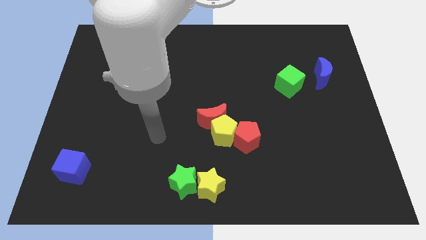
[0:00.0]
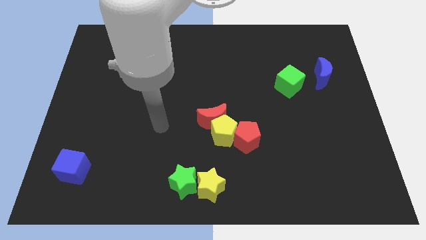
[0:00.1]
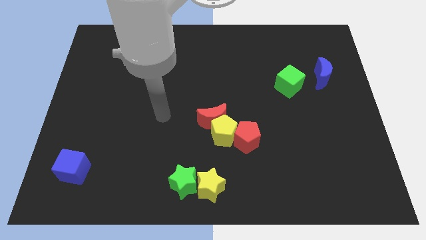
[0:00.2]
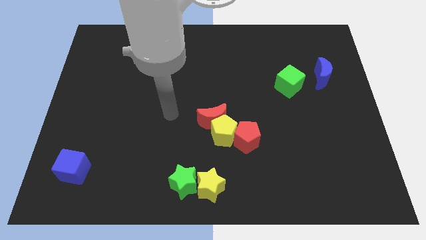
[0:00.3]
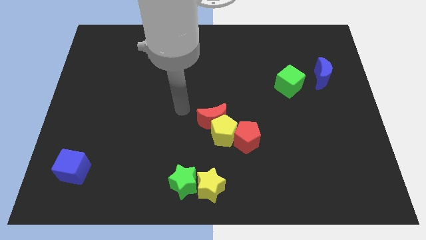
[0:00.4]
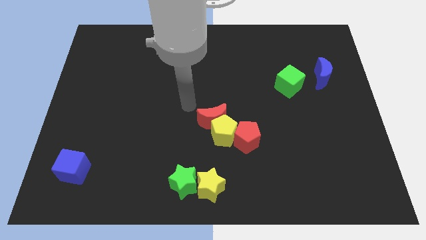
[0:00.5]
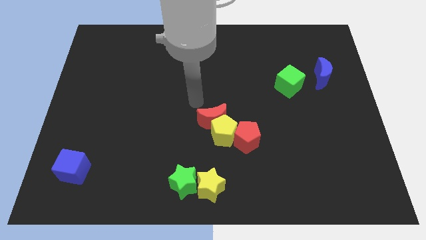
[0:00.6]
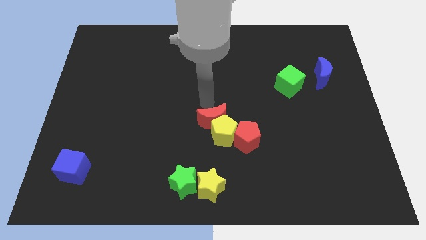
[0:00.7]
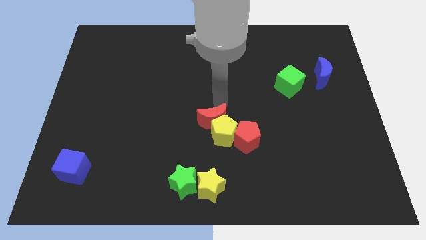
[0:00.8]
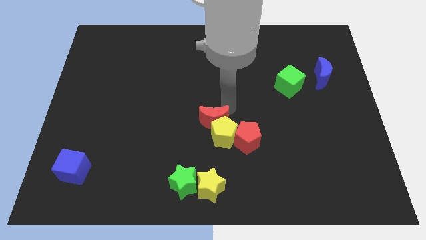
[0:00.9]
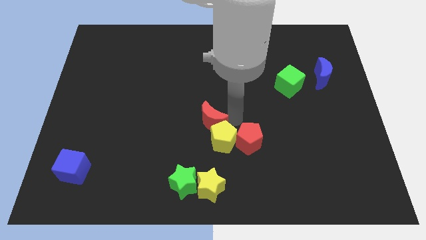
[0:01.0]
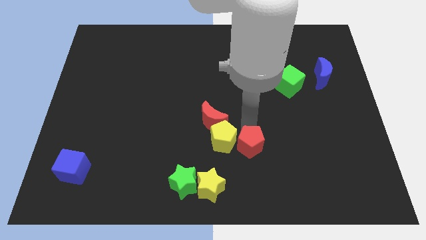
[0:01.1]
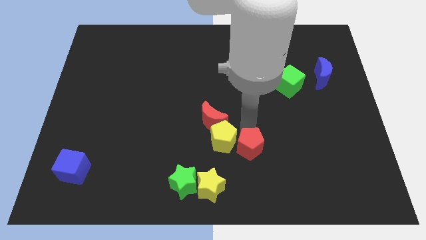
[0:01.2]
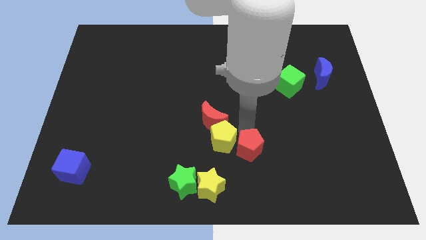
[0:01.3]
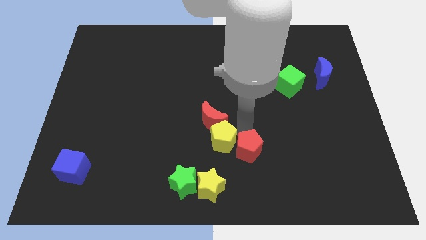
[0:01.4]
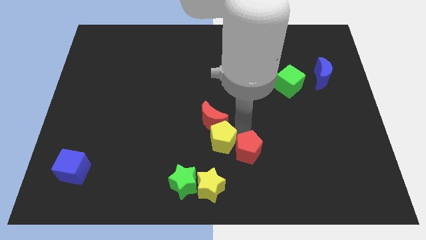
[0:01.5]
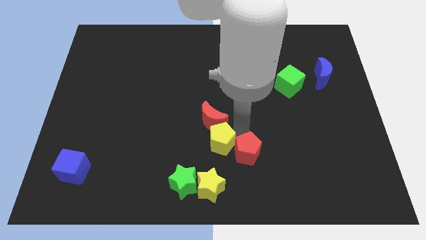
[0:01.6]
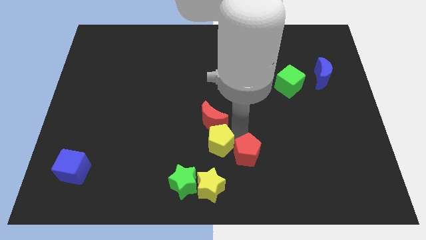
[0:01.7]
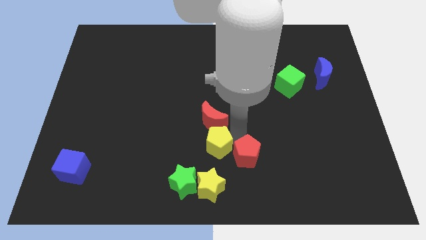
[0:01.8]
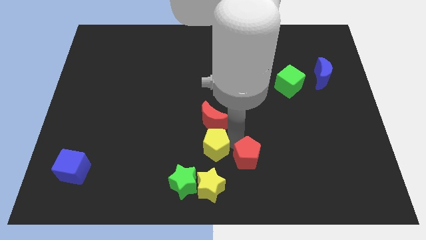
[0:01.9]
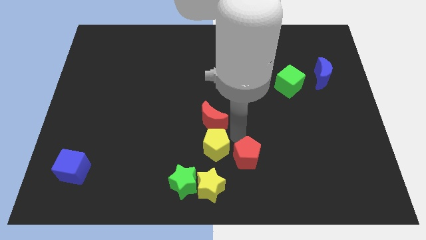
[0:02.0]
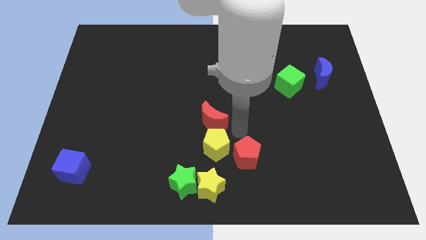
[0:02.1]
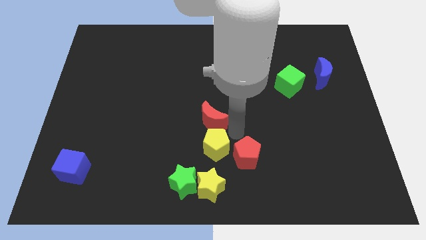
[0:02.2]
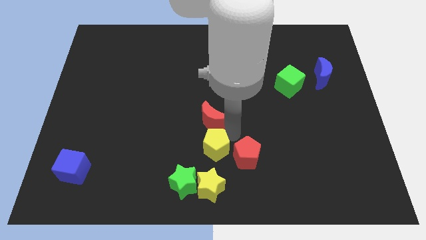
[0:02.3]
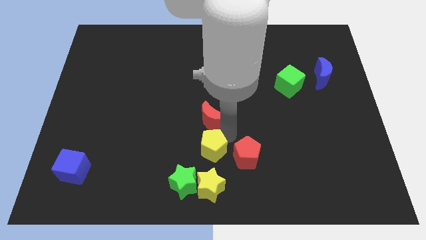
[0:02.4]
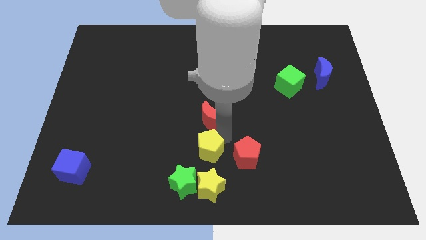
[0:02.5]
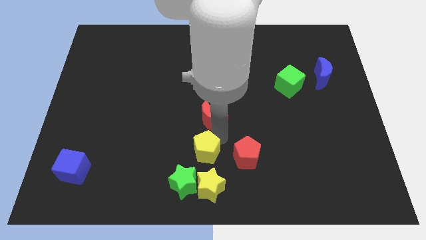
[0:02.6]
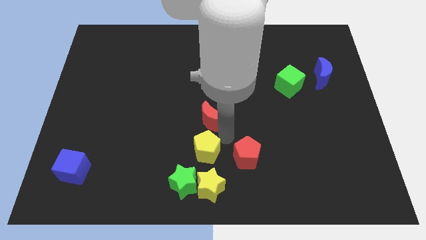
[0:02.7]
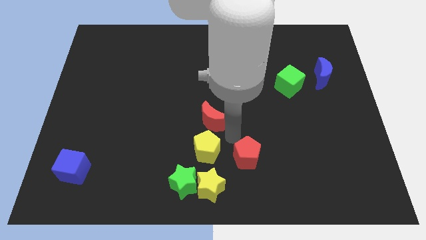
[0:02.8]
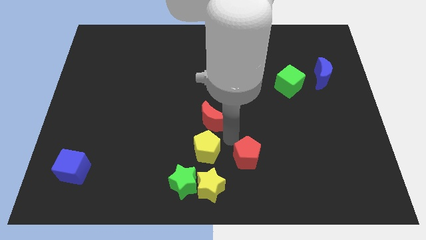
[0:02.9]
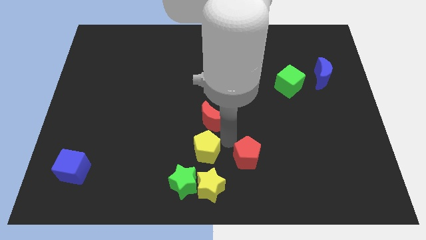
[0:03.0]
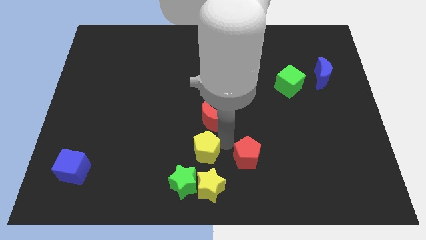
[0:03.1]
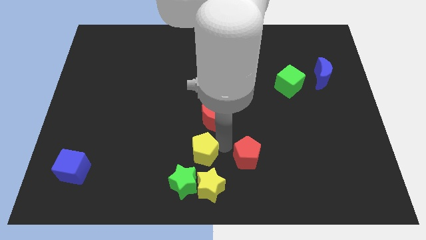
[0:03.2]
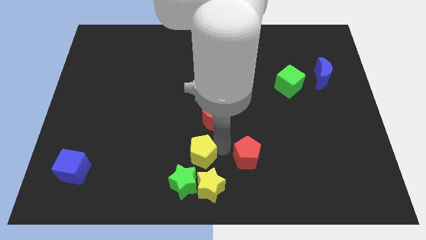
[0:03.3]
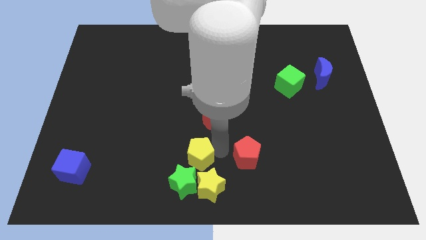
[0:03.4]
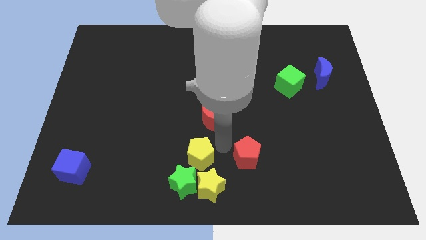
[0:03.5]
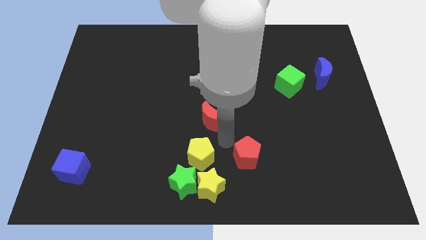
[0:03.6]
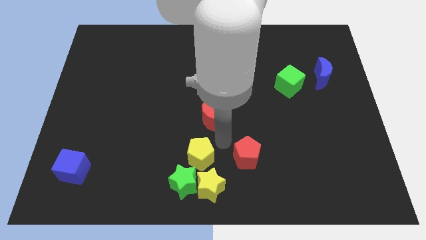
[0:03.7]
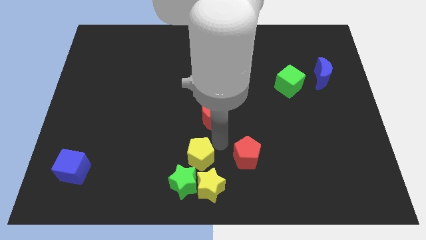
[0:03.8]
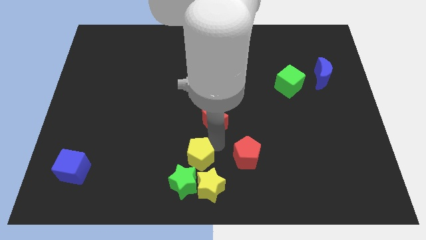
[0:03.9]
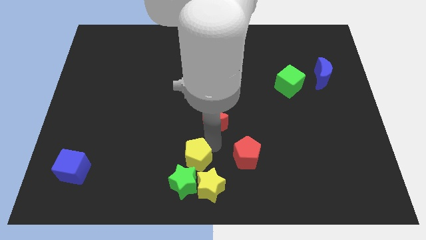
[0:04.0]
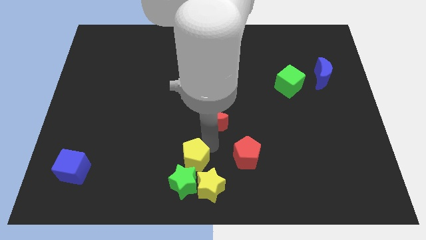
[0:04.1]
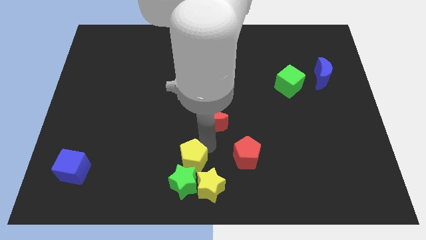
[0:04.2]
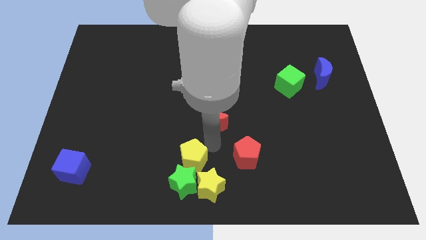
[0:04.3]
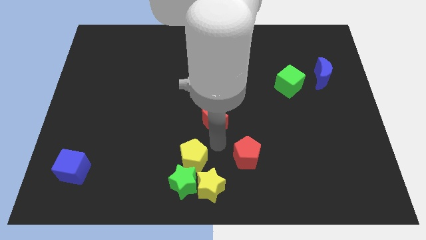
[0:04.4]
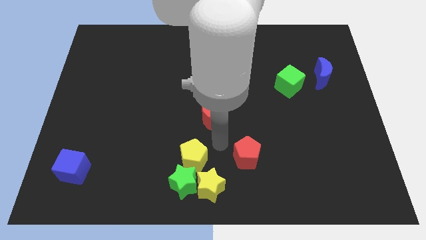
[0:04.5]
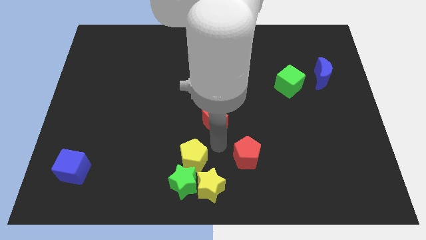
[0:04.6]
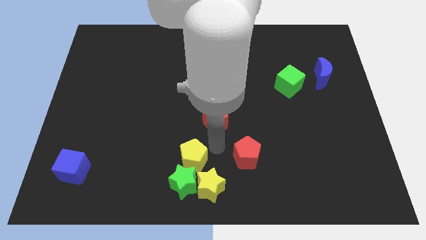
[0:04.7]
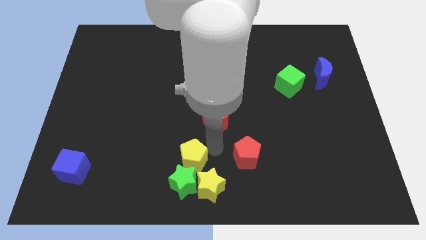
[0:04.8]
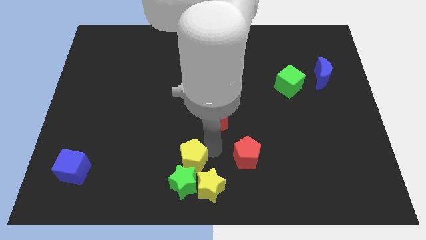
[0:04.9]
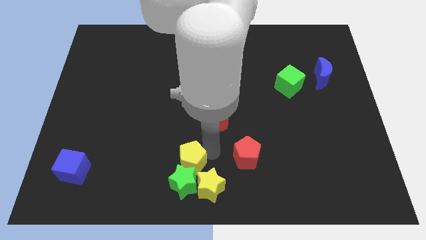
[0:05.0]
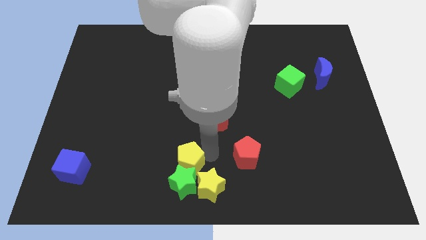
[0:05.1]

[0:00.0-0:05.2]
move the yellow pentagon away from the red moon and red pentagon

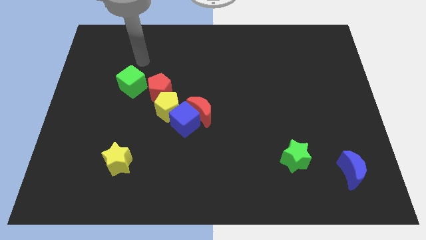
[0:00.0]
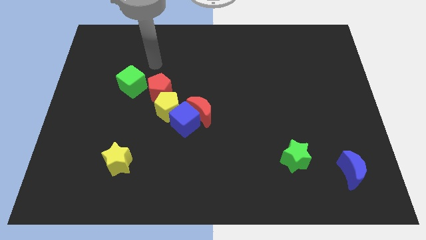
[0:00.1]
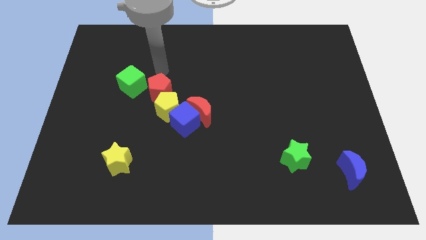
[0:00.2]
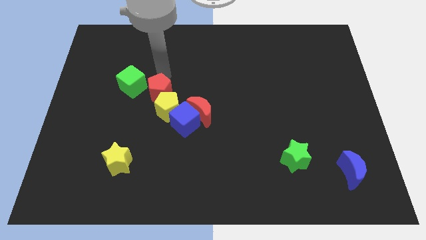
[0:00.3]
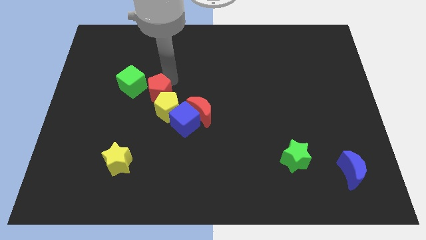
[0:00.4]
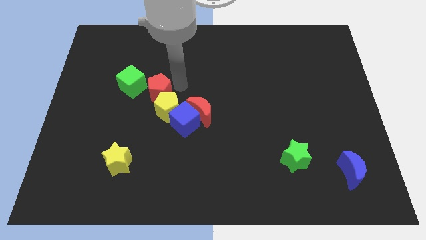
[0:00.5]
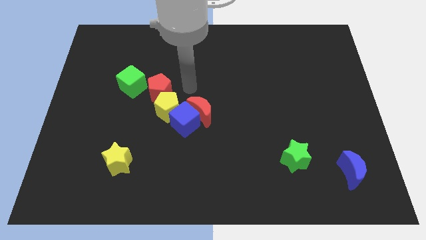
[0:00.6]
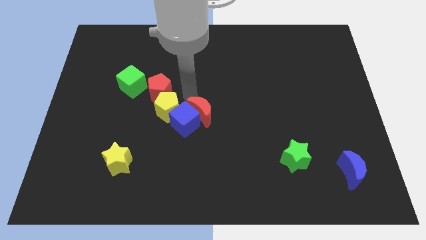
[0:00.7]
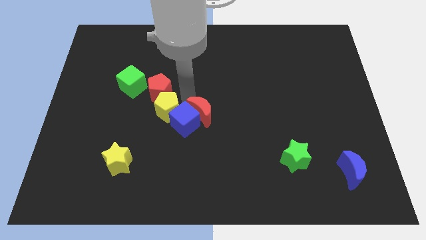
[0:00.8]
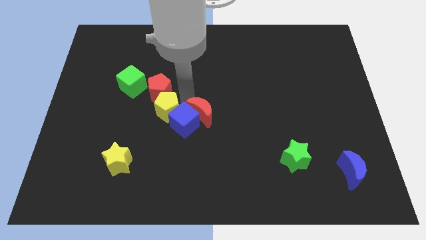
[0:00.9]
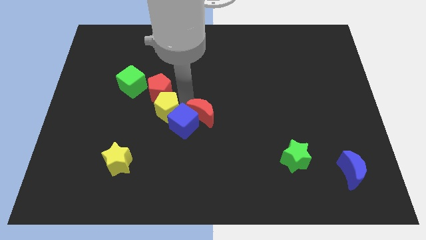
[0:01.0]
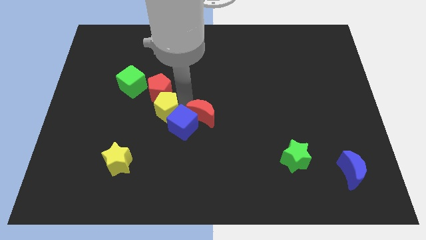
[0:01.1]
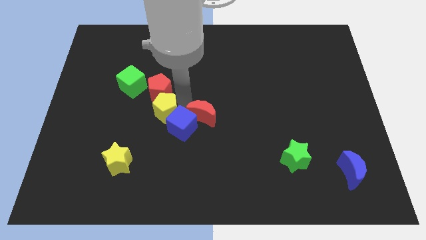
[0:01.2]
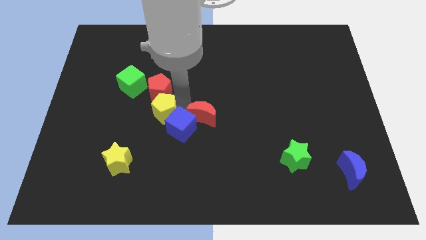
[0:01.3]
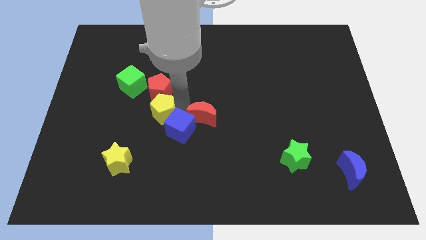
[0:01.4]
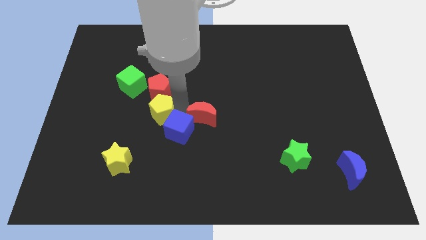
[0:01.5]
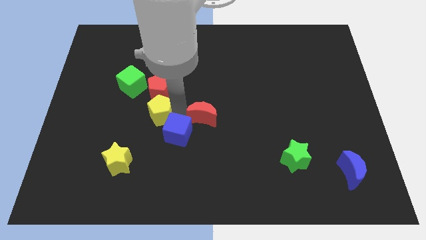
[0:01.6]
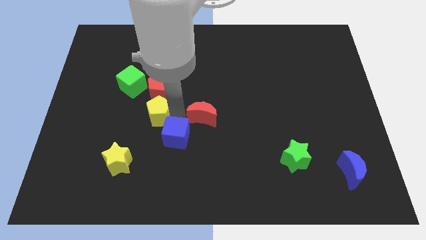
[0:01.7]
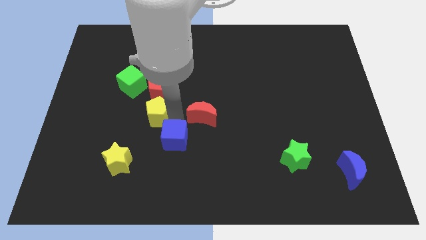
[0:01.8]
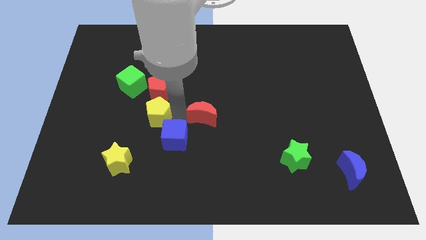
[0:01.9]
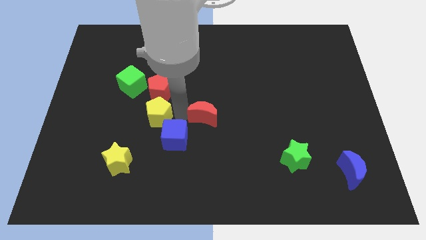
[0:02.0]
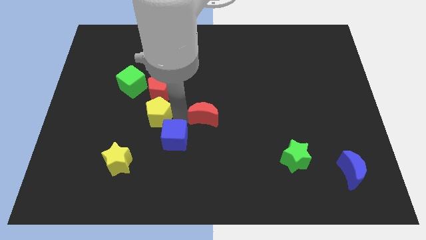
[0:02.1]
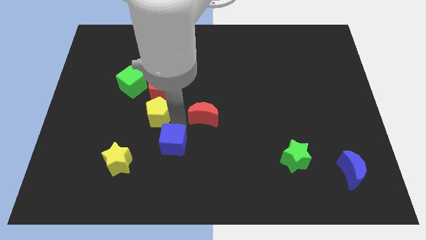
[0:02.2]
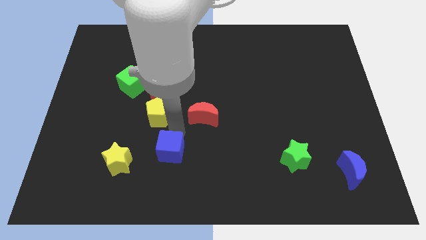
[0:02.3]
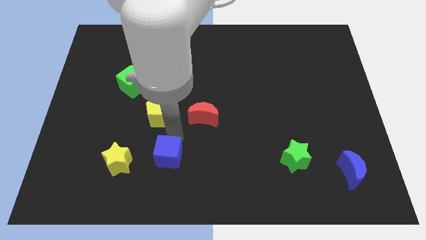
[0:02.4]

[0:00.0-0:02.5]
separate the blue cube from the red moon and yellow pentagon

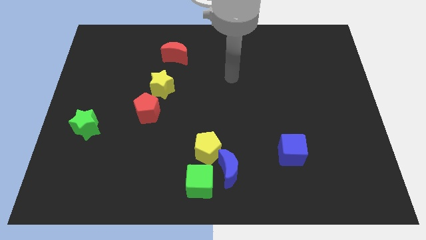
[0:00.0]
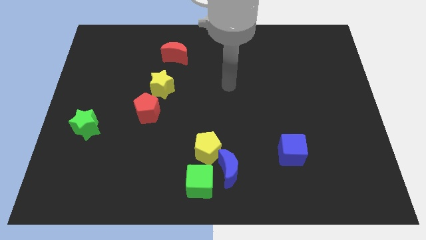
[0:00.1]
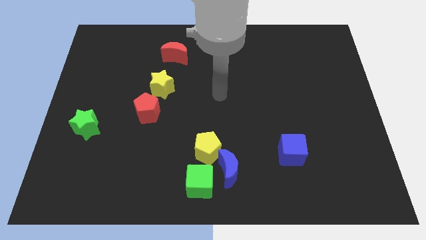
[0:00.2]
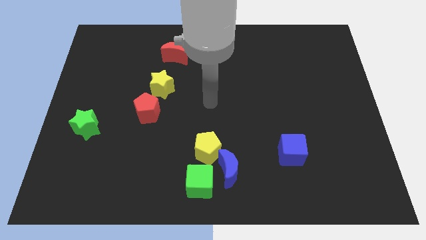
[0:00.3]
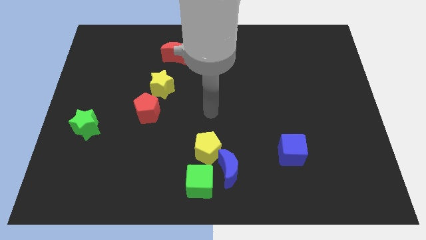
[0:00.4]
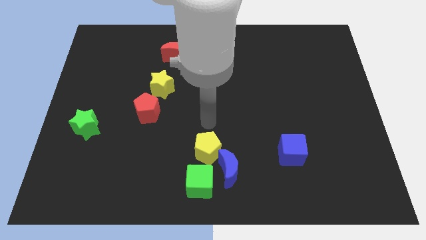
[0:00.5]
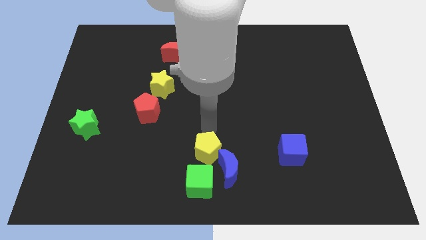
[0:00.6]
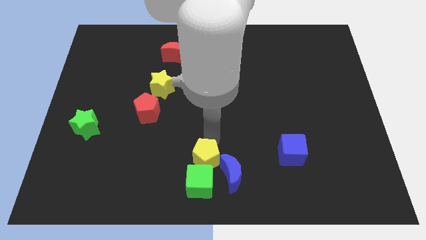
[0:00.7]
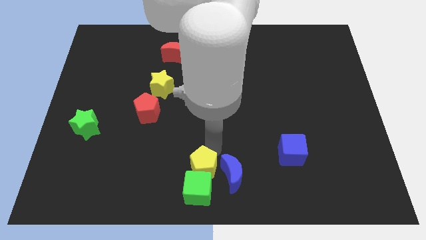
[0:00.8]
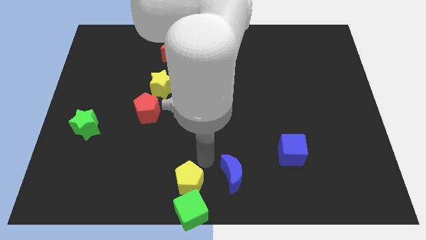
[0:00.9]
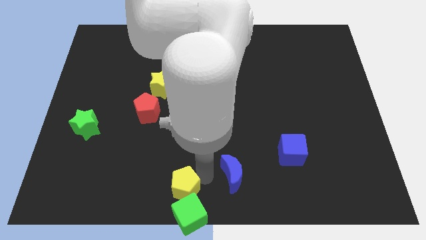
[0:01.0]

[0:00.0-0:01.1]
pull the blue moon apart from the yellow pentagon and green cube

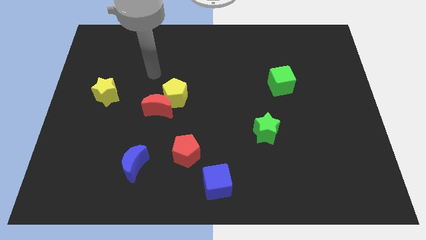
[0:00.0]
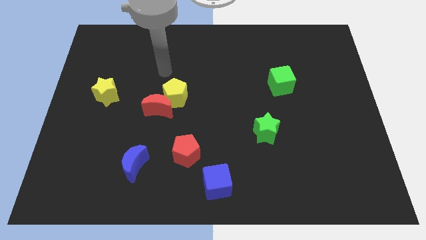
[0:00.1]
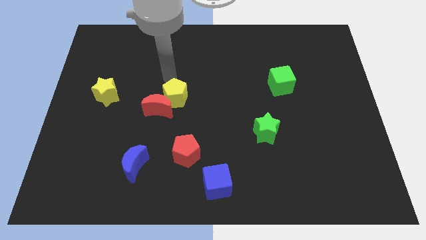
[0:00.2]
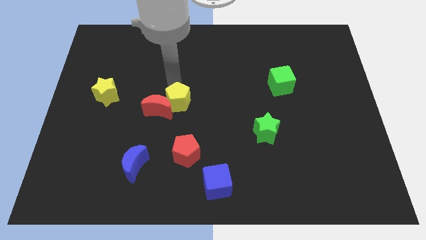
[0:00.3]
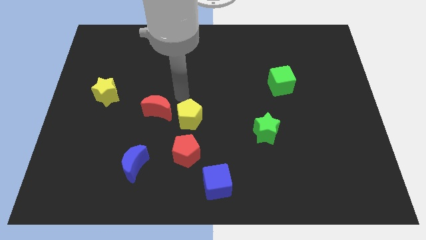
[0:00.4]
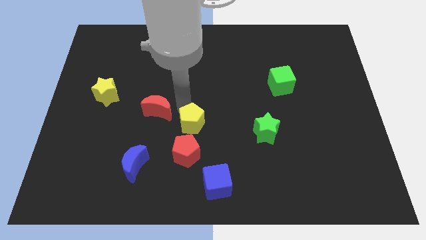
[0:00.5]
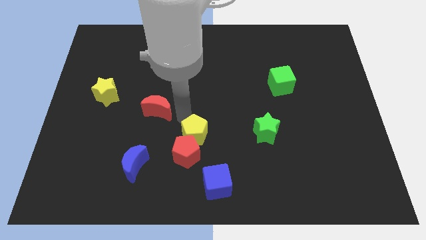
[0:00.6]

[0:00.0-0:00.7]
pull the red moon apart from the yellow pentagon
